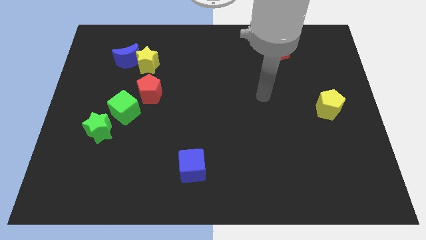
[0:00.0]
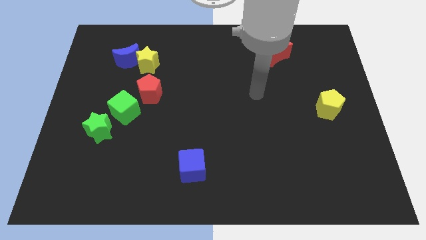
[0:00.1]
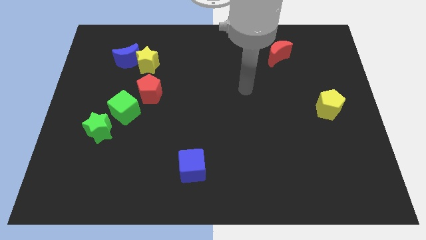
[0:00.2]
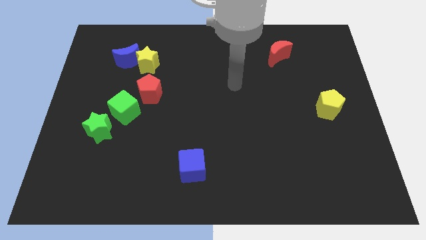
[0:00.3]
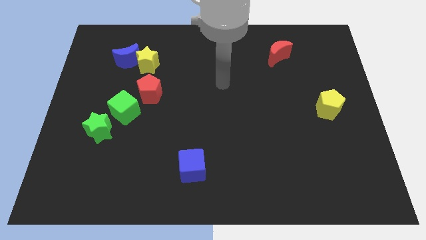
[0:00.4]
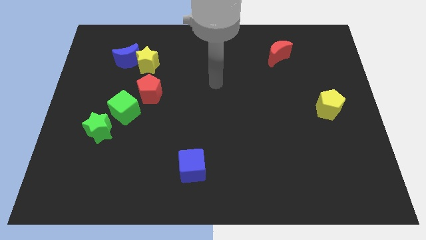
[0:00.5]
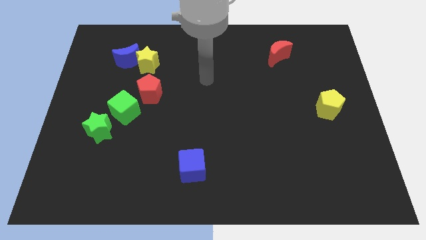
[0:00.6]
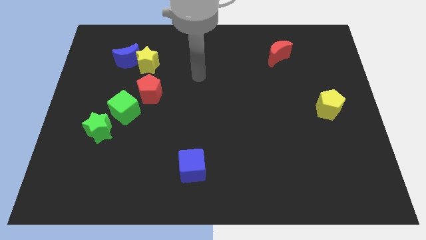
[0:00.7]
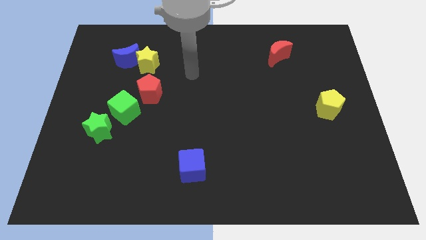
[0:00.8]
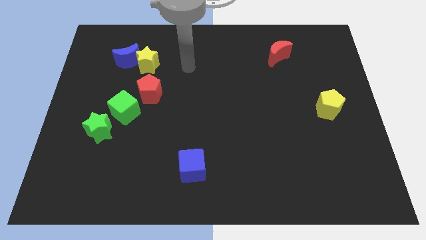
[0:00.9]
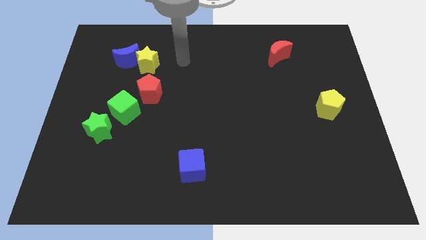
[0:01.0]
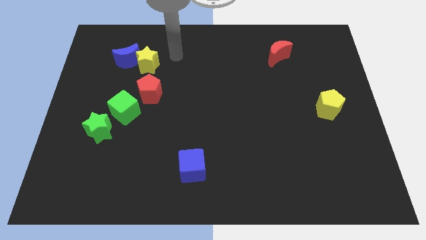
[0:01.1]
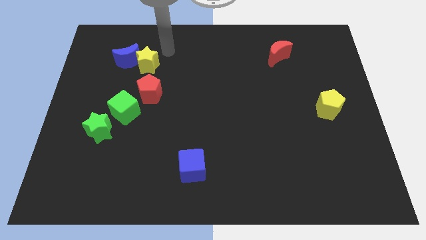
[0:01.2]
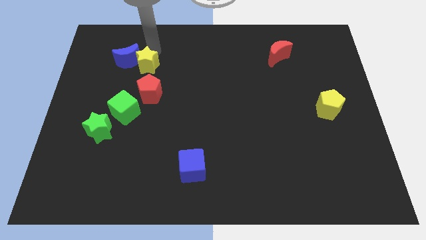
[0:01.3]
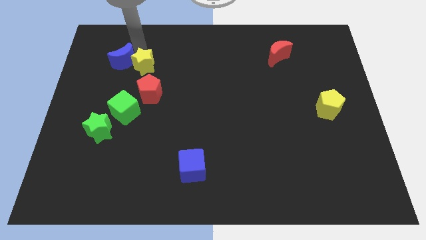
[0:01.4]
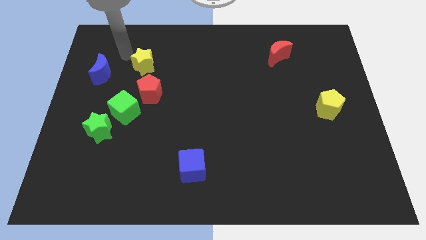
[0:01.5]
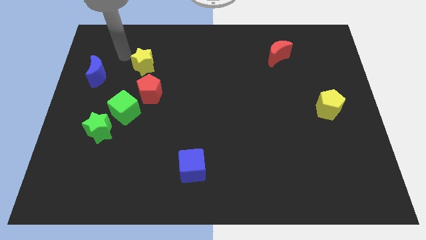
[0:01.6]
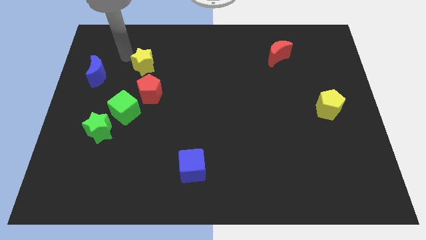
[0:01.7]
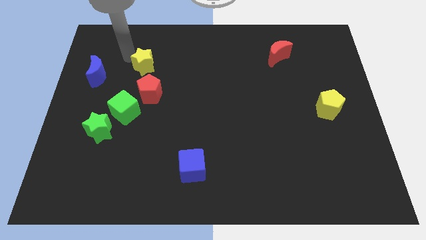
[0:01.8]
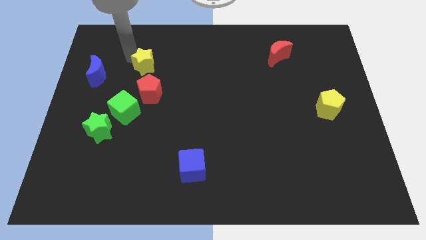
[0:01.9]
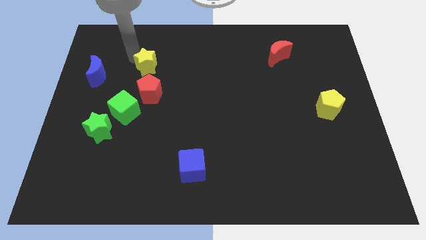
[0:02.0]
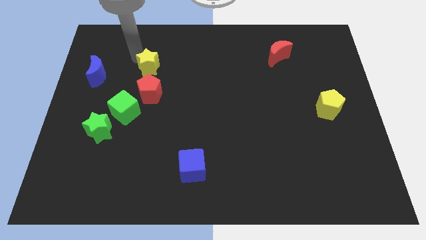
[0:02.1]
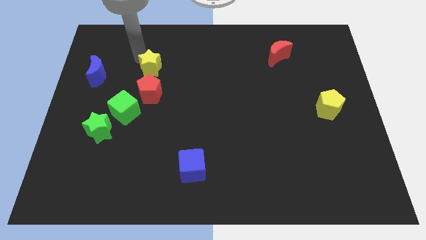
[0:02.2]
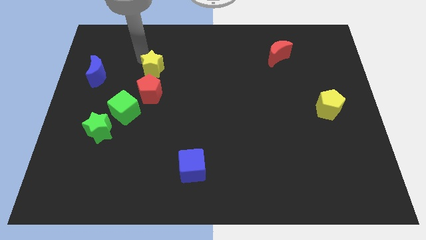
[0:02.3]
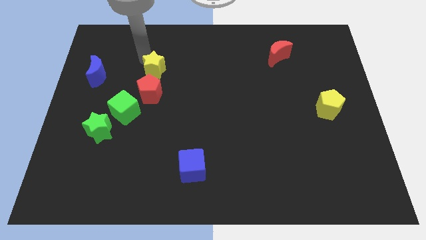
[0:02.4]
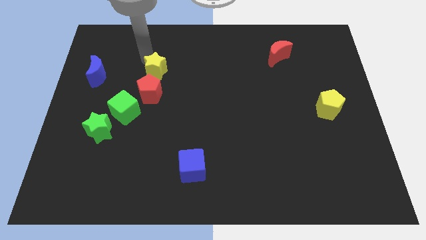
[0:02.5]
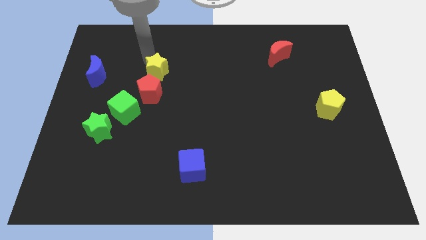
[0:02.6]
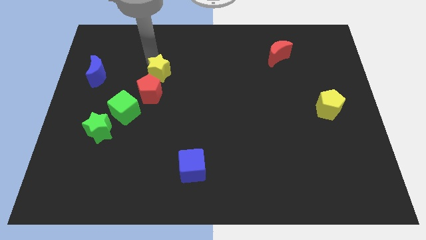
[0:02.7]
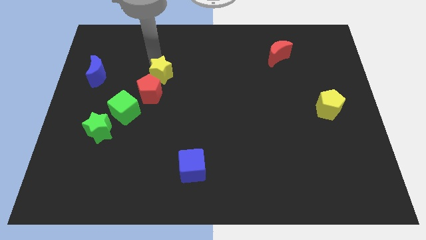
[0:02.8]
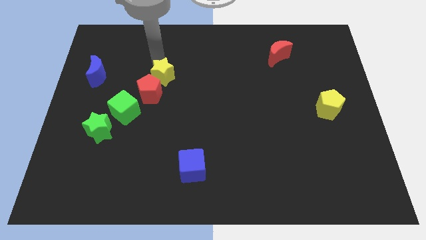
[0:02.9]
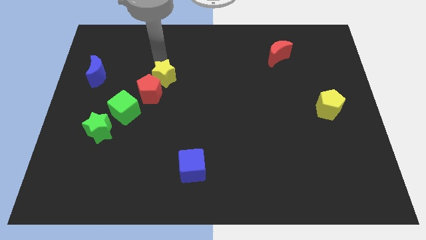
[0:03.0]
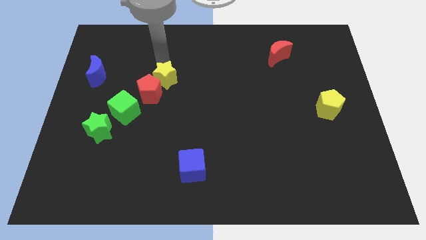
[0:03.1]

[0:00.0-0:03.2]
move the yellow star down and right a little

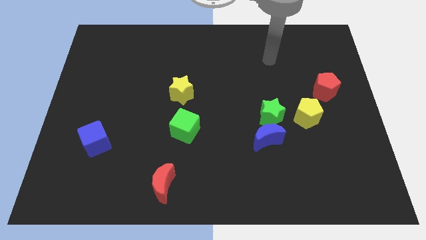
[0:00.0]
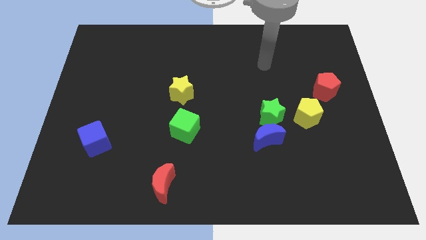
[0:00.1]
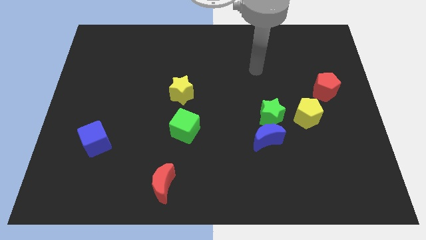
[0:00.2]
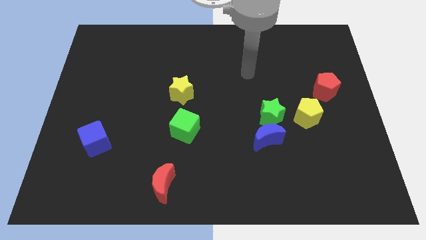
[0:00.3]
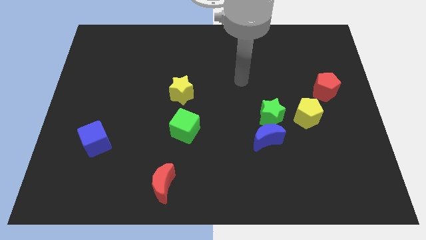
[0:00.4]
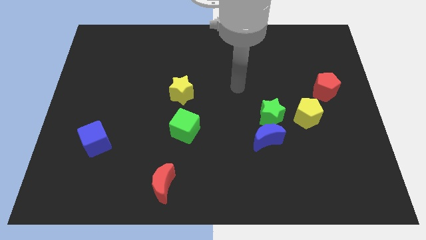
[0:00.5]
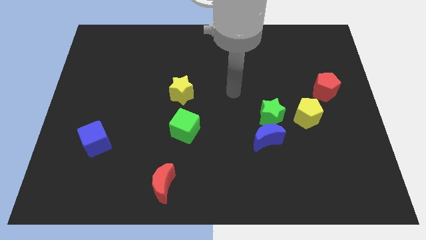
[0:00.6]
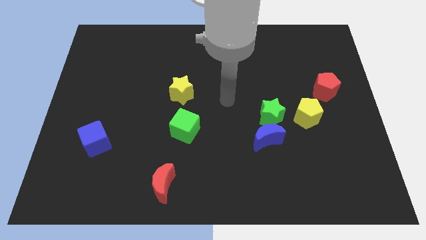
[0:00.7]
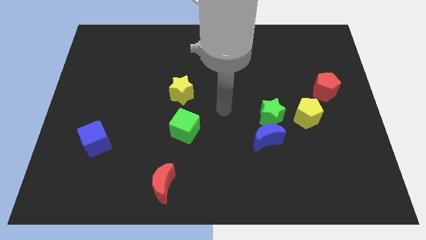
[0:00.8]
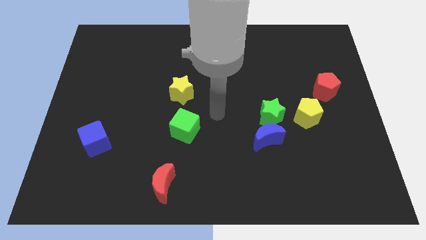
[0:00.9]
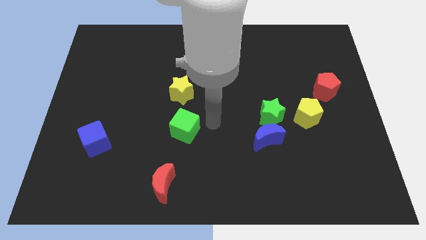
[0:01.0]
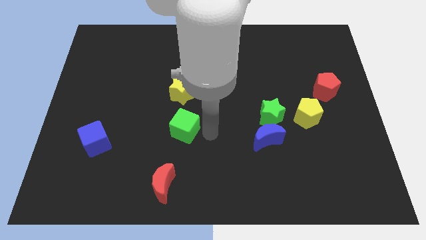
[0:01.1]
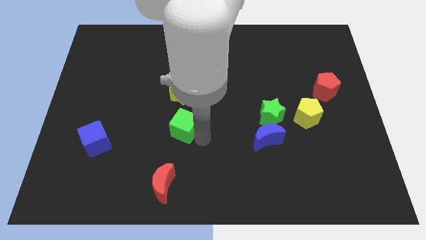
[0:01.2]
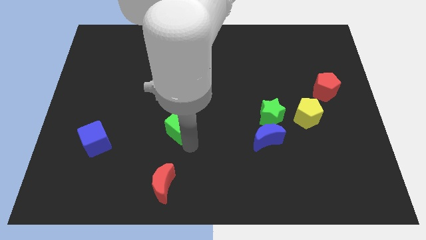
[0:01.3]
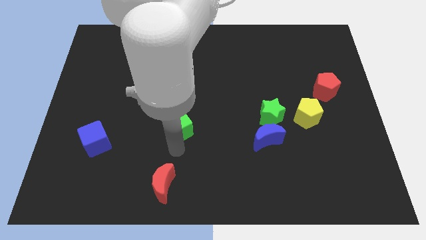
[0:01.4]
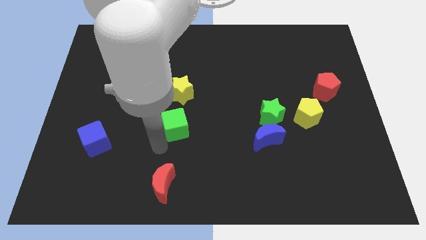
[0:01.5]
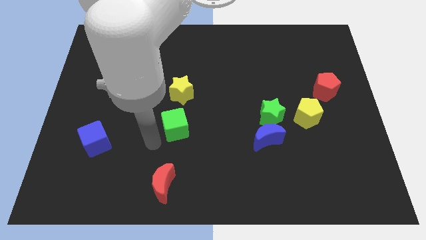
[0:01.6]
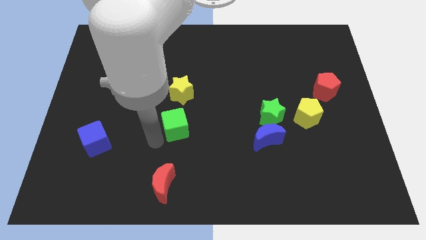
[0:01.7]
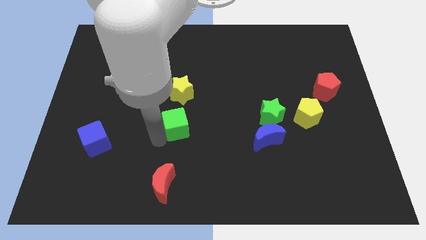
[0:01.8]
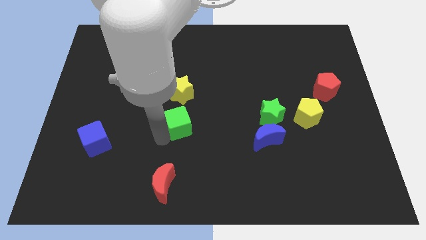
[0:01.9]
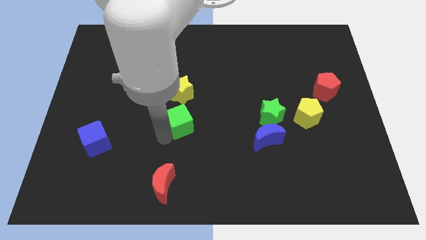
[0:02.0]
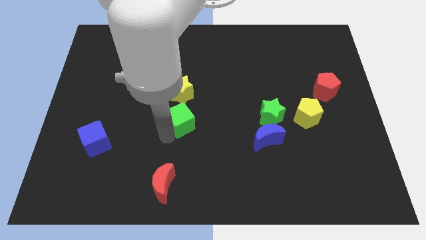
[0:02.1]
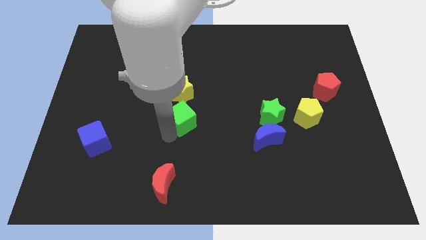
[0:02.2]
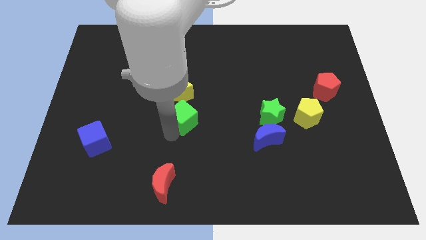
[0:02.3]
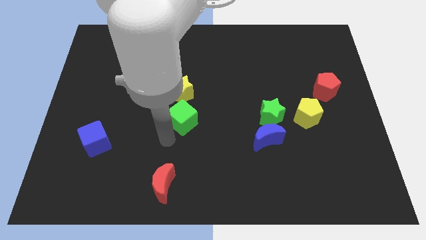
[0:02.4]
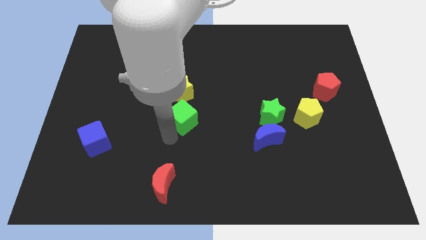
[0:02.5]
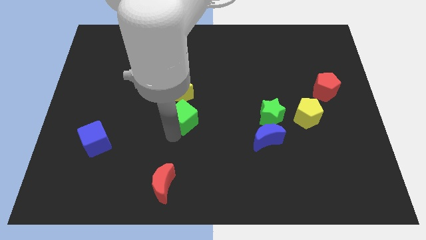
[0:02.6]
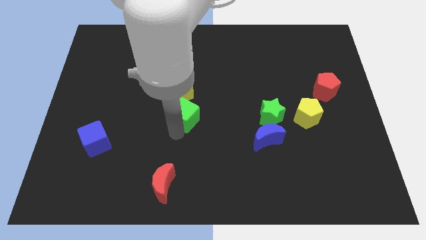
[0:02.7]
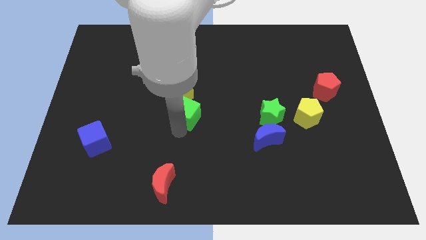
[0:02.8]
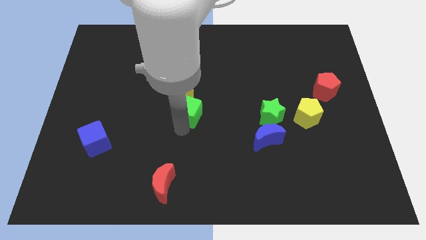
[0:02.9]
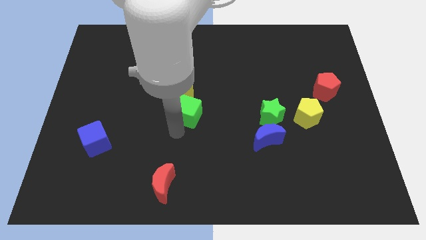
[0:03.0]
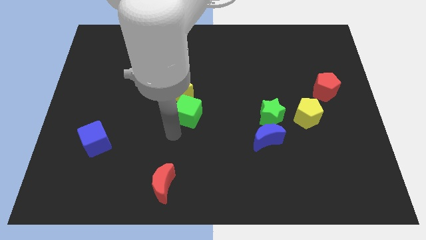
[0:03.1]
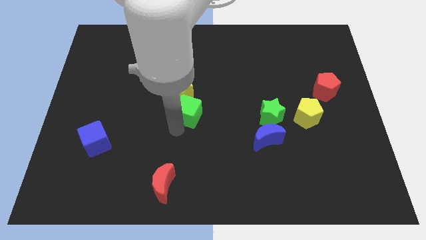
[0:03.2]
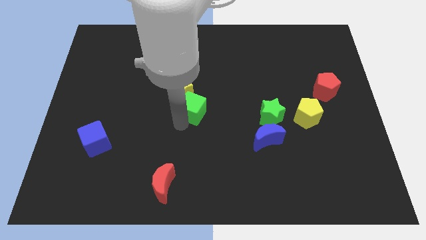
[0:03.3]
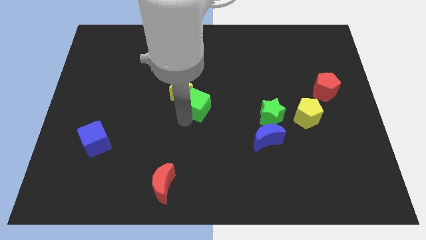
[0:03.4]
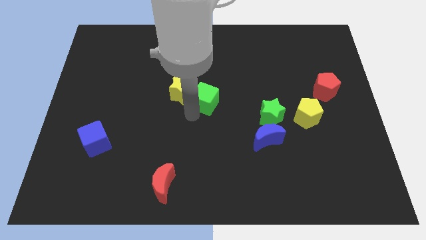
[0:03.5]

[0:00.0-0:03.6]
push the green cube up somewhat

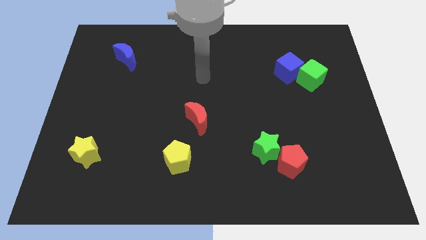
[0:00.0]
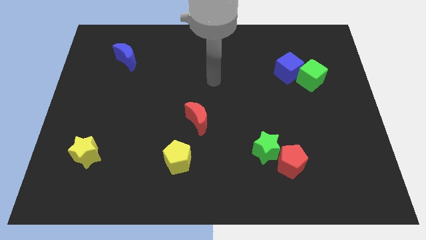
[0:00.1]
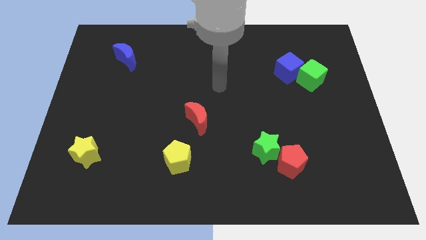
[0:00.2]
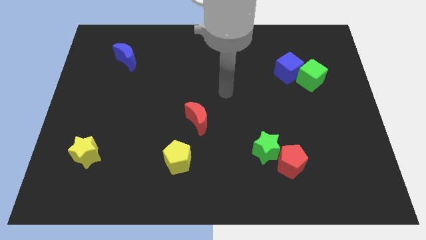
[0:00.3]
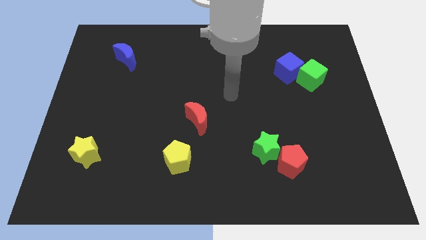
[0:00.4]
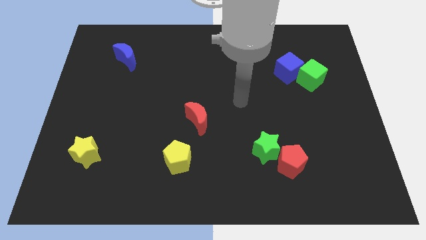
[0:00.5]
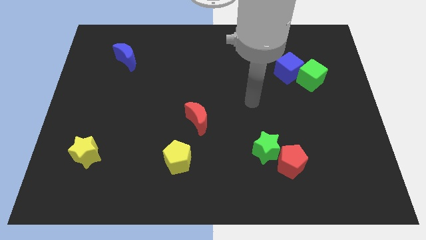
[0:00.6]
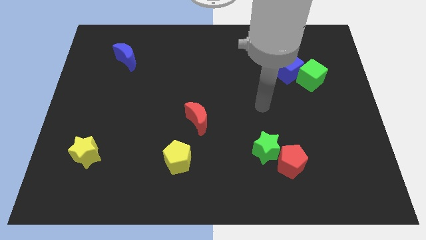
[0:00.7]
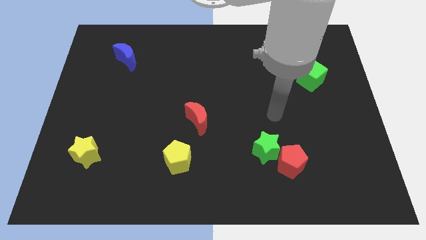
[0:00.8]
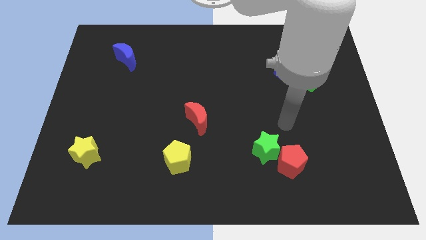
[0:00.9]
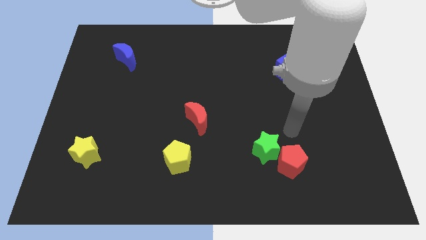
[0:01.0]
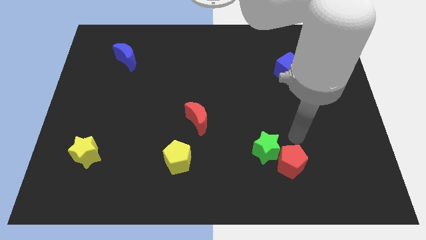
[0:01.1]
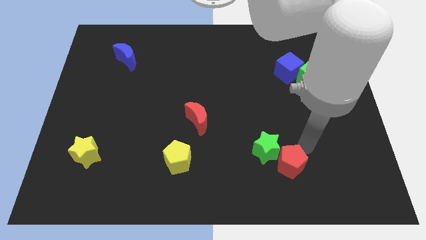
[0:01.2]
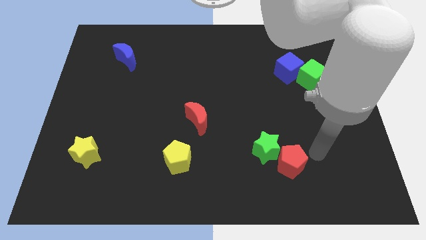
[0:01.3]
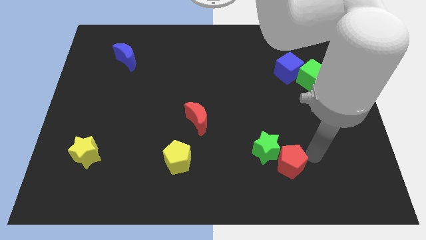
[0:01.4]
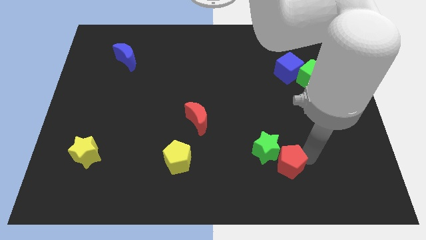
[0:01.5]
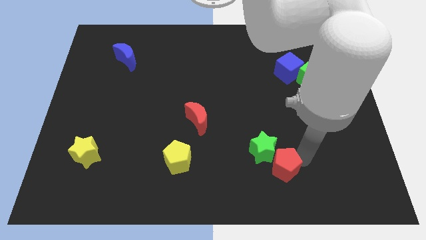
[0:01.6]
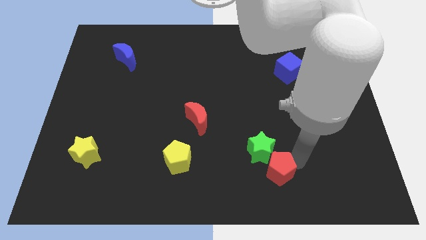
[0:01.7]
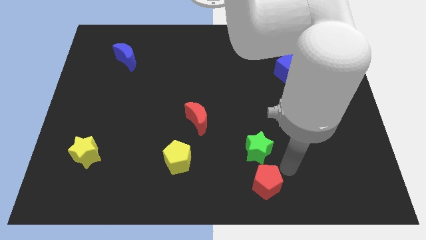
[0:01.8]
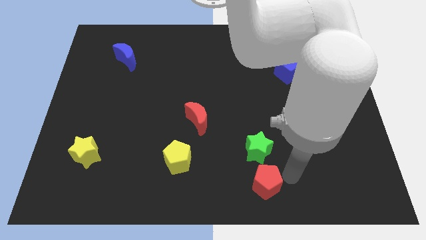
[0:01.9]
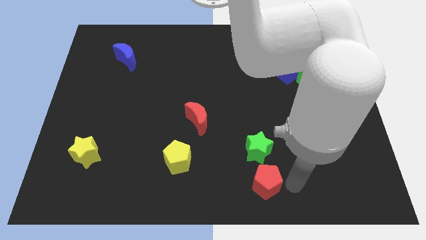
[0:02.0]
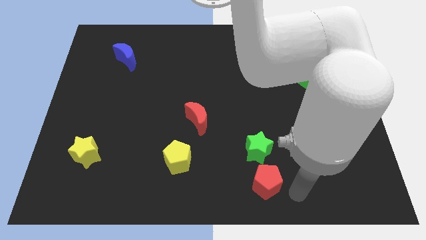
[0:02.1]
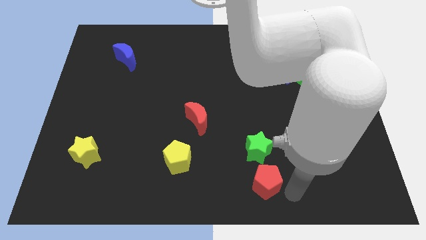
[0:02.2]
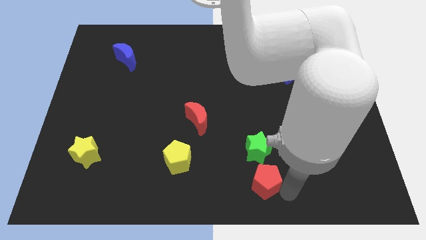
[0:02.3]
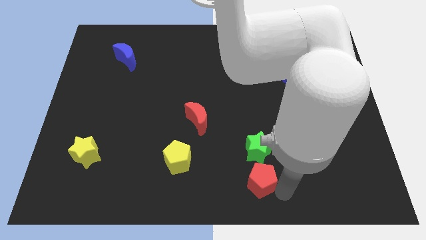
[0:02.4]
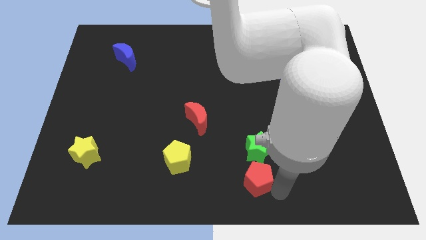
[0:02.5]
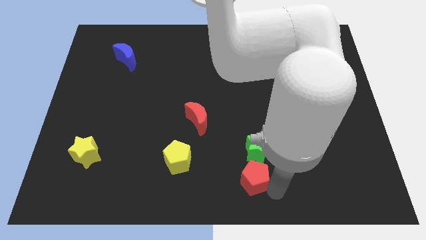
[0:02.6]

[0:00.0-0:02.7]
move the red pentagon a little bit to the left
